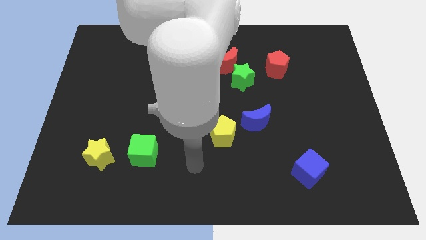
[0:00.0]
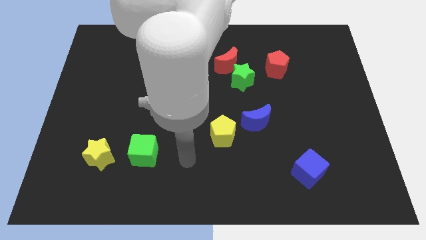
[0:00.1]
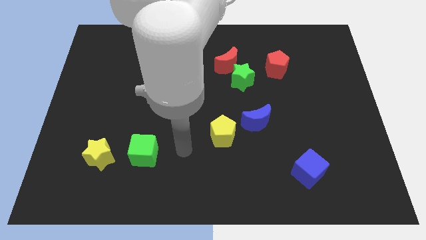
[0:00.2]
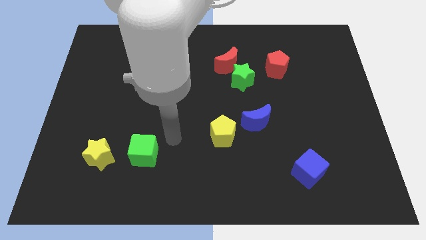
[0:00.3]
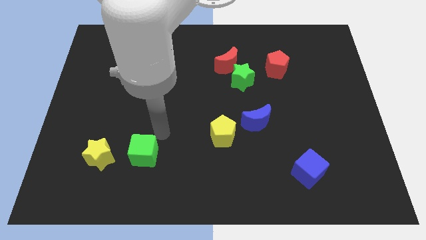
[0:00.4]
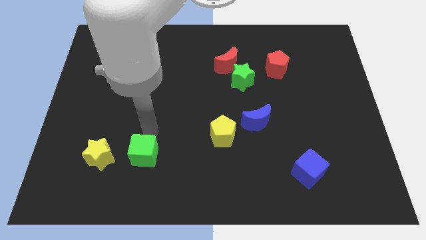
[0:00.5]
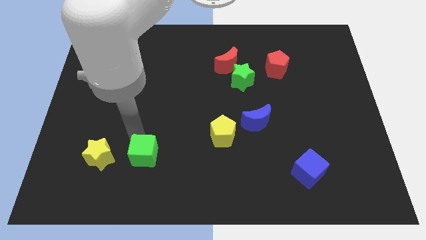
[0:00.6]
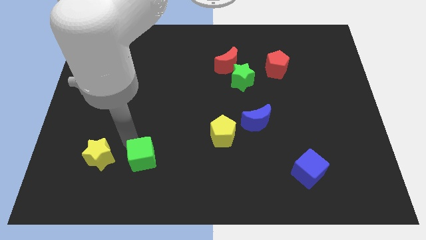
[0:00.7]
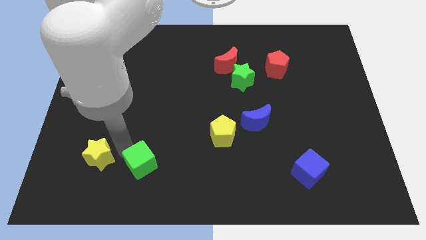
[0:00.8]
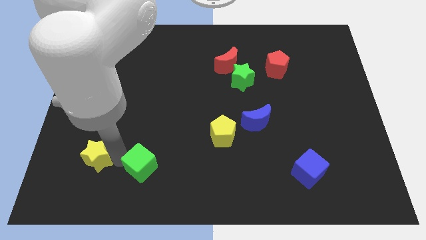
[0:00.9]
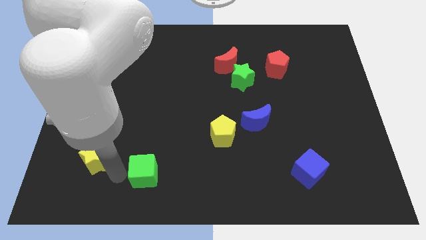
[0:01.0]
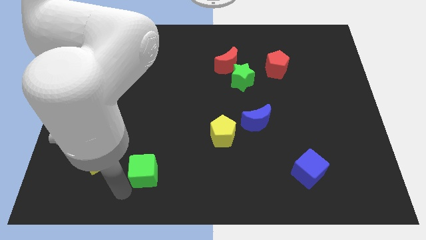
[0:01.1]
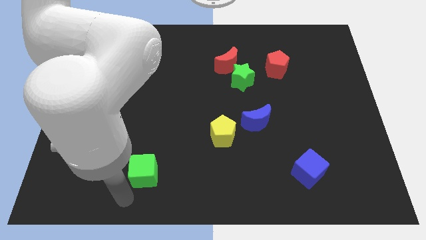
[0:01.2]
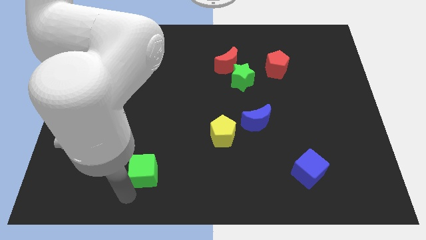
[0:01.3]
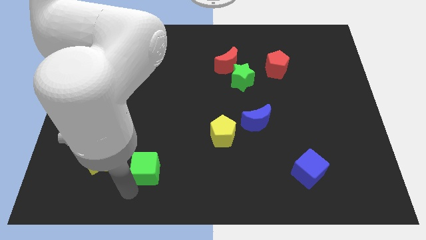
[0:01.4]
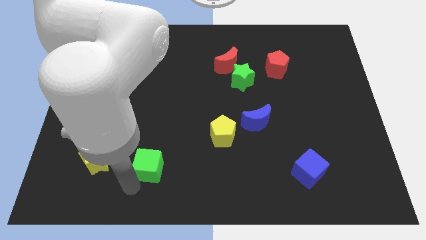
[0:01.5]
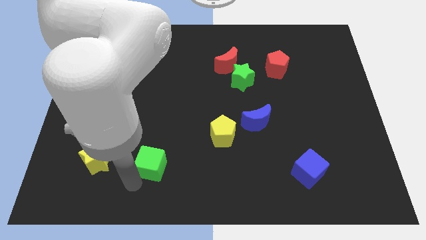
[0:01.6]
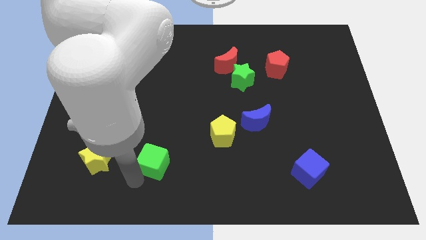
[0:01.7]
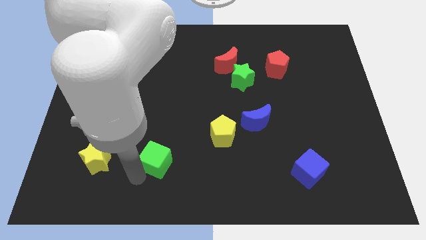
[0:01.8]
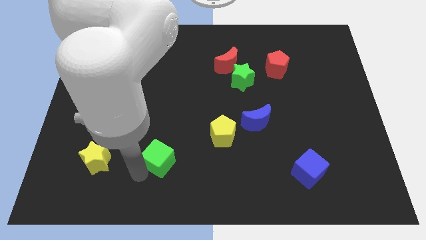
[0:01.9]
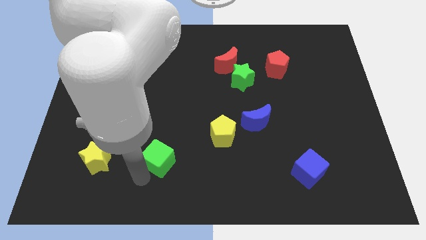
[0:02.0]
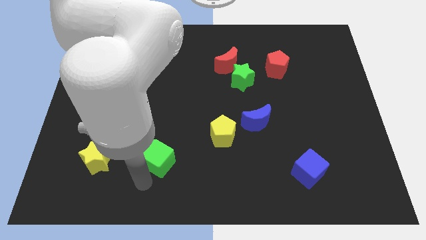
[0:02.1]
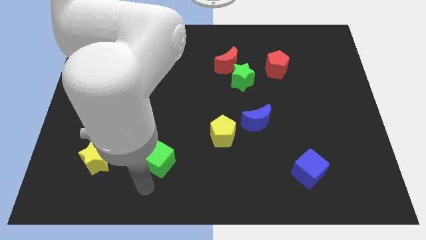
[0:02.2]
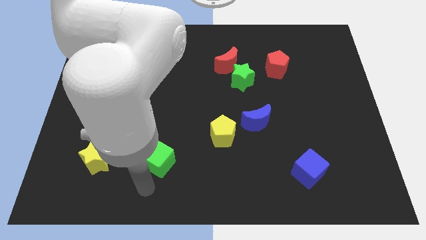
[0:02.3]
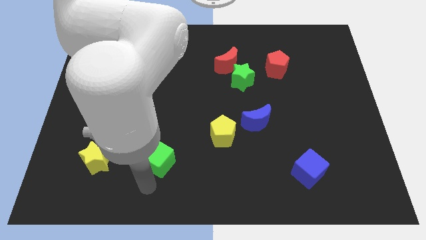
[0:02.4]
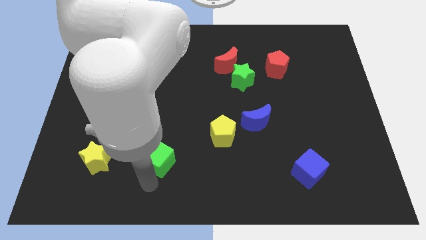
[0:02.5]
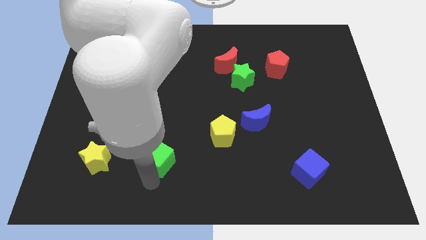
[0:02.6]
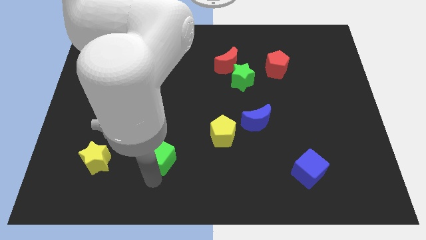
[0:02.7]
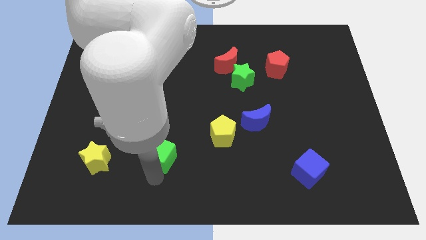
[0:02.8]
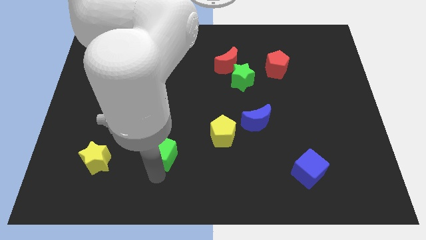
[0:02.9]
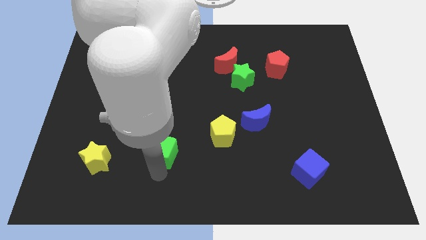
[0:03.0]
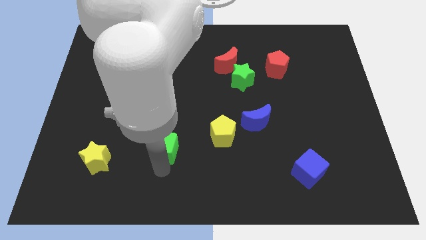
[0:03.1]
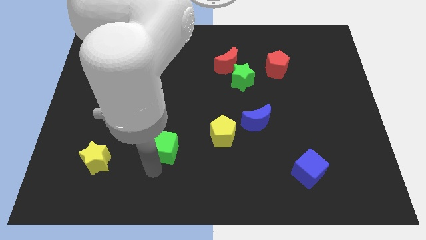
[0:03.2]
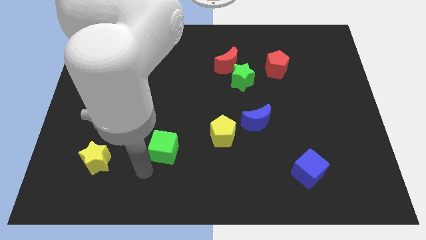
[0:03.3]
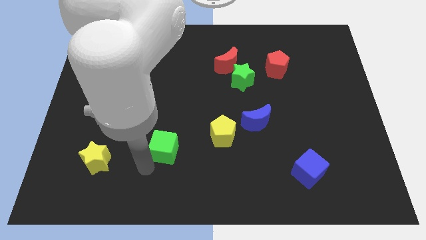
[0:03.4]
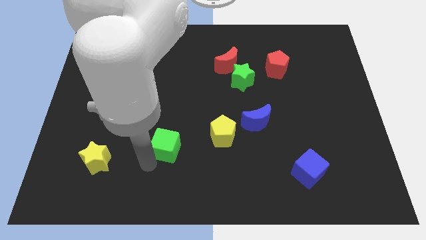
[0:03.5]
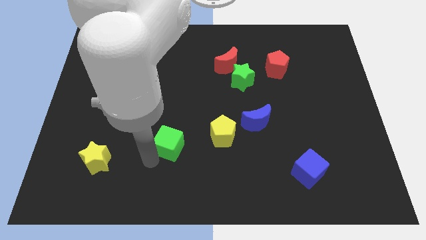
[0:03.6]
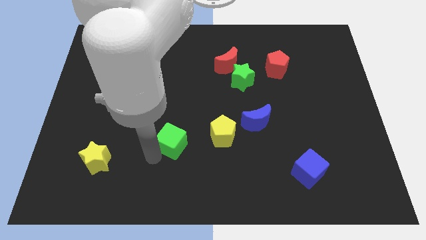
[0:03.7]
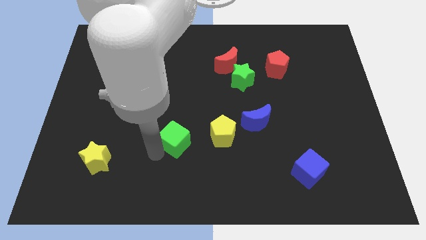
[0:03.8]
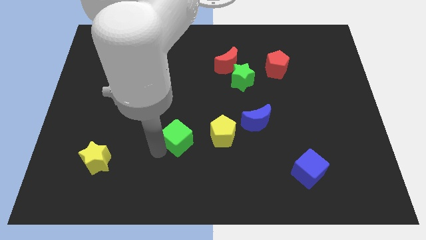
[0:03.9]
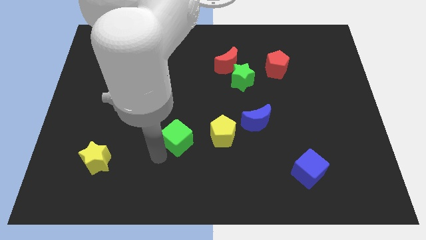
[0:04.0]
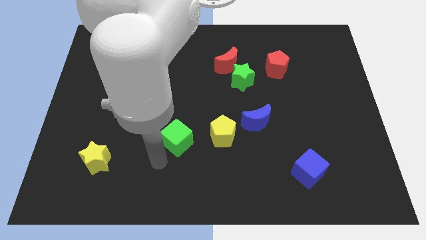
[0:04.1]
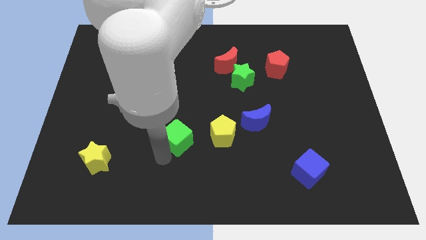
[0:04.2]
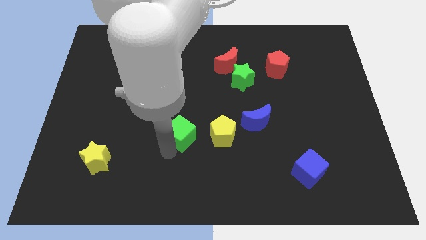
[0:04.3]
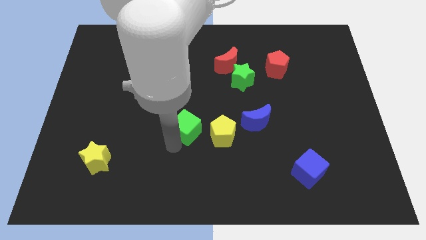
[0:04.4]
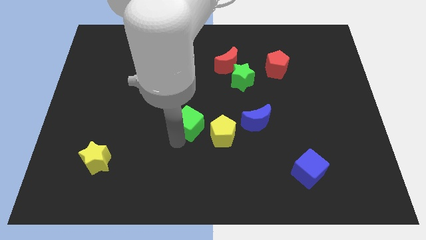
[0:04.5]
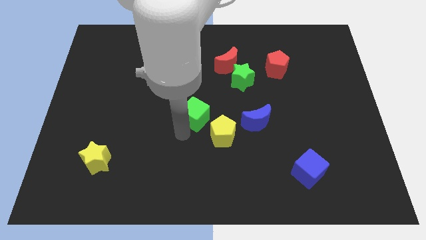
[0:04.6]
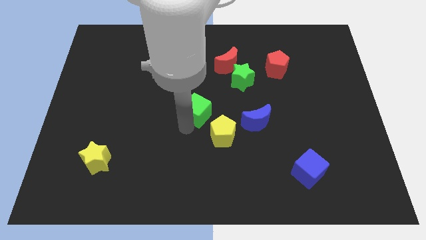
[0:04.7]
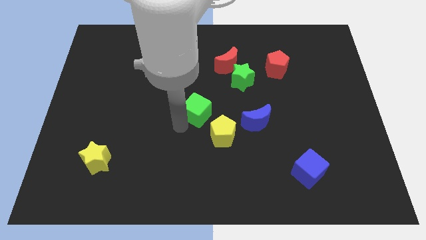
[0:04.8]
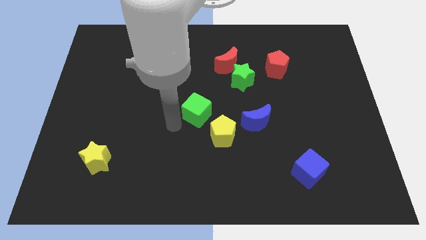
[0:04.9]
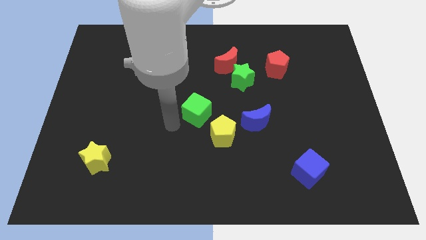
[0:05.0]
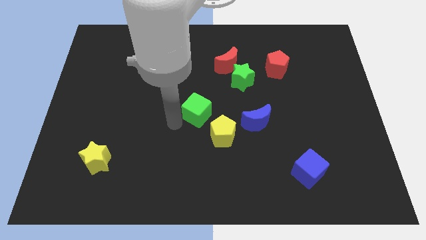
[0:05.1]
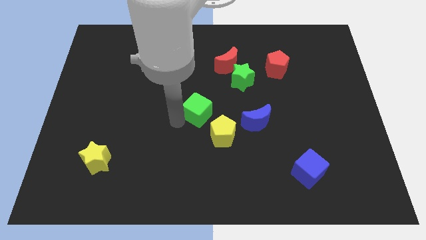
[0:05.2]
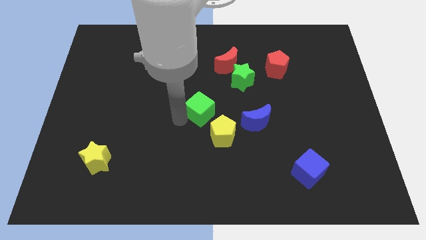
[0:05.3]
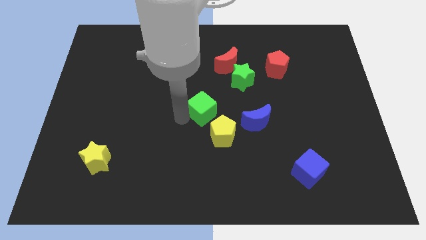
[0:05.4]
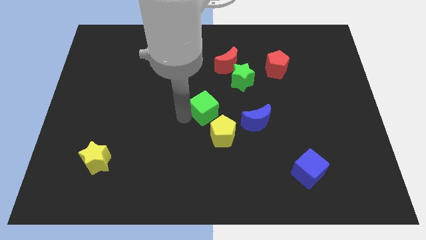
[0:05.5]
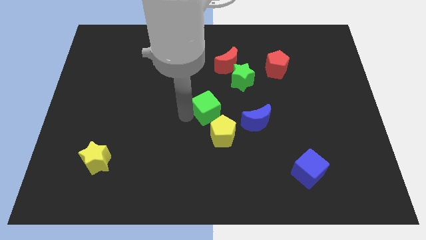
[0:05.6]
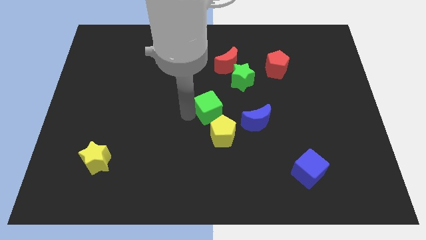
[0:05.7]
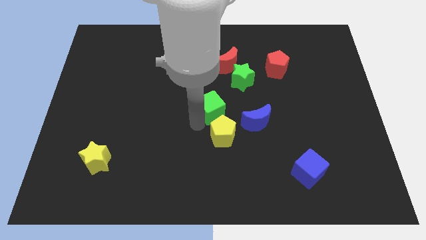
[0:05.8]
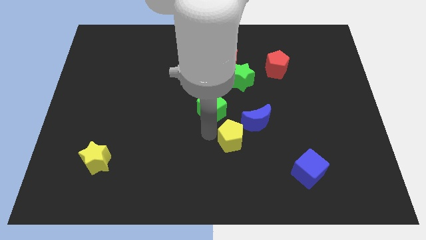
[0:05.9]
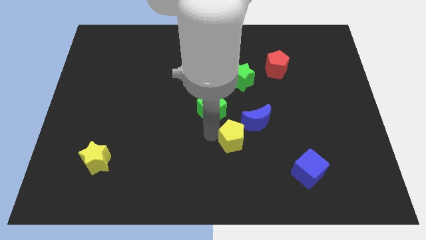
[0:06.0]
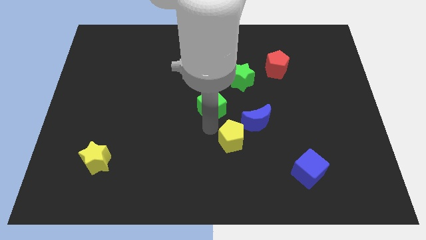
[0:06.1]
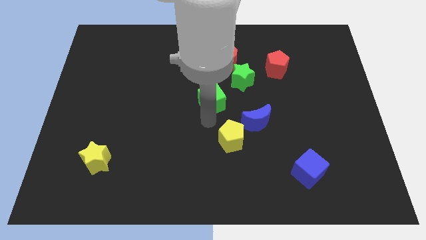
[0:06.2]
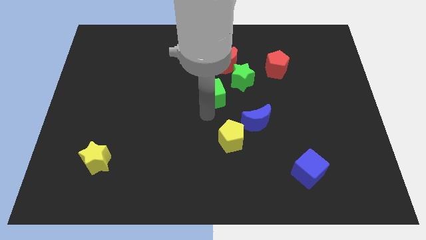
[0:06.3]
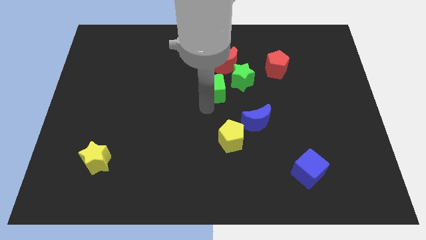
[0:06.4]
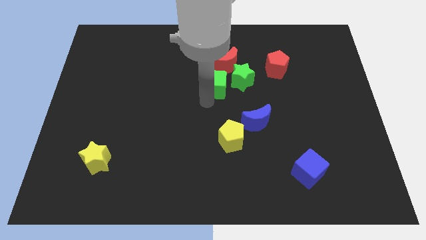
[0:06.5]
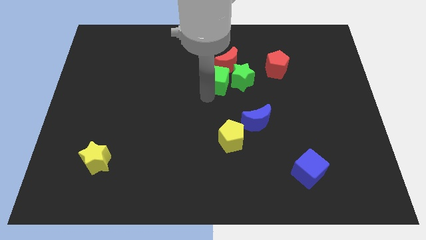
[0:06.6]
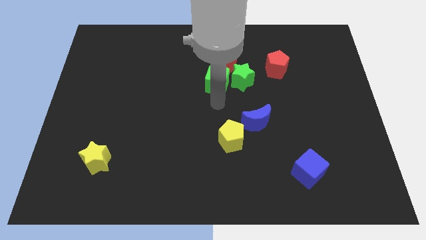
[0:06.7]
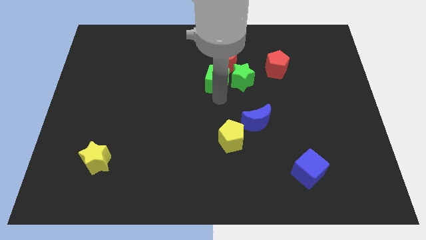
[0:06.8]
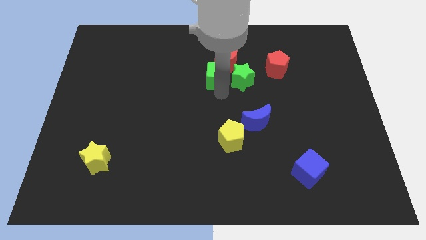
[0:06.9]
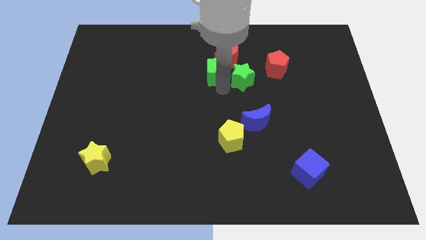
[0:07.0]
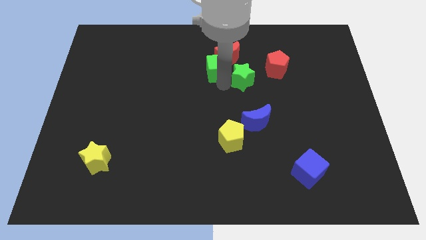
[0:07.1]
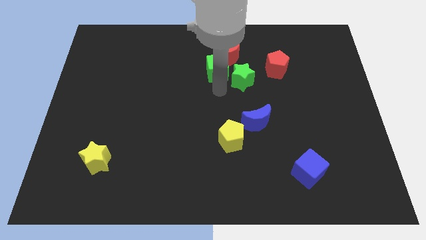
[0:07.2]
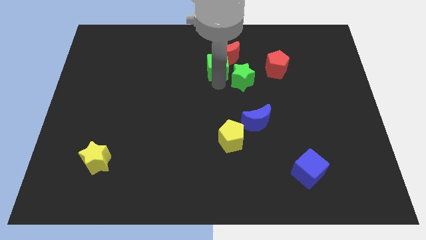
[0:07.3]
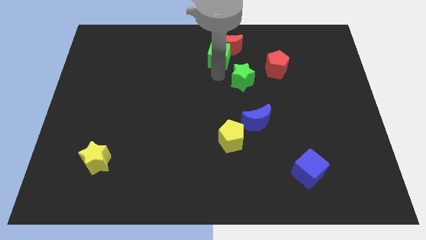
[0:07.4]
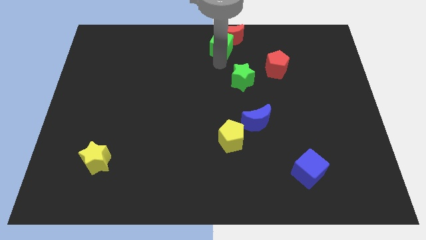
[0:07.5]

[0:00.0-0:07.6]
slide the green cube to the towards your base
